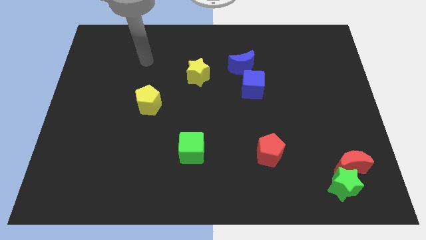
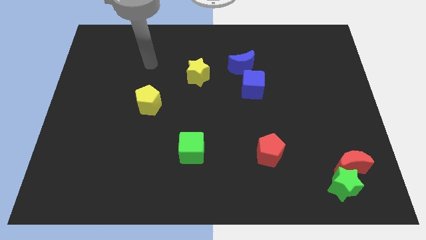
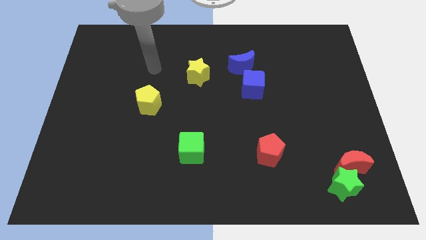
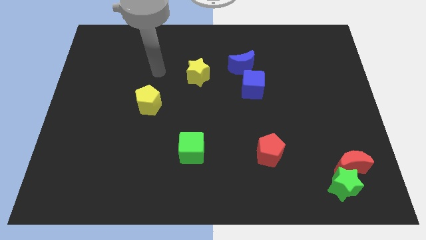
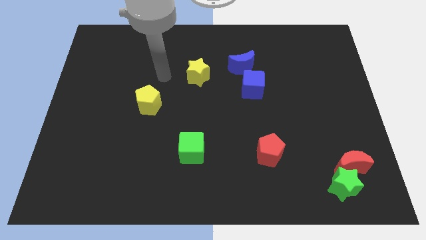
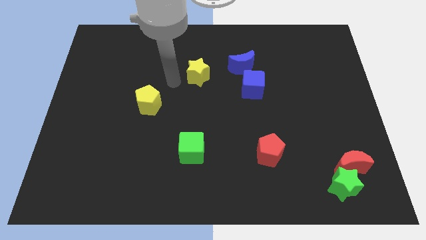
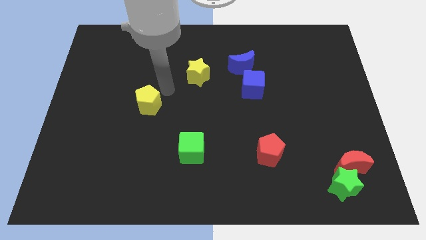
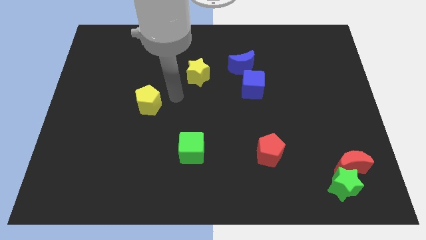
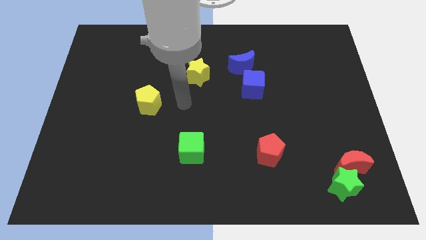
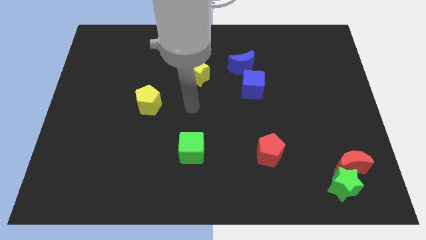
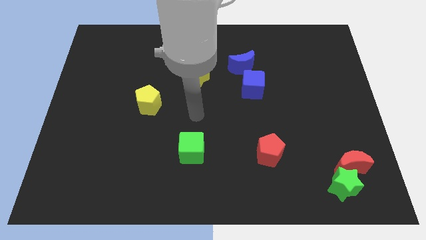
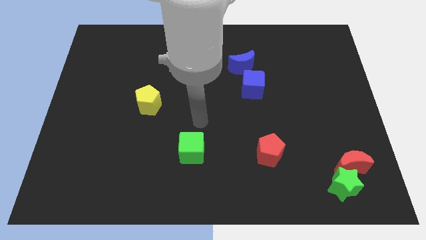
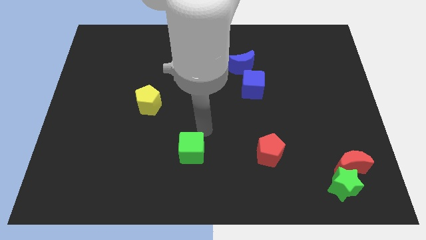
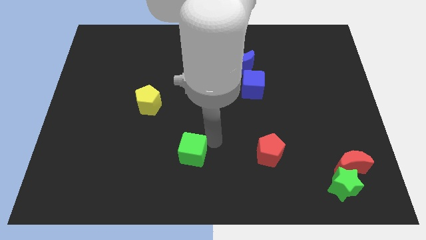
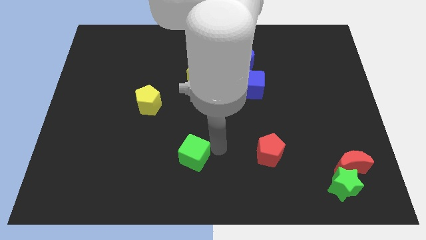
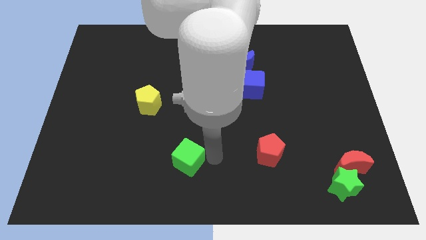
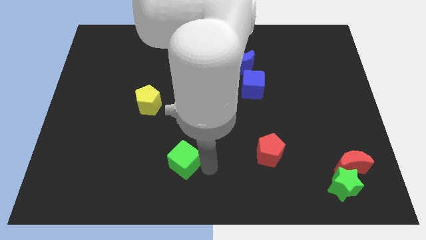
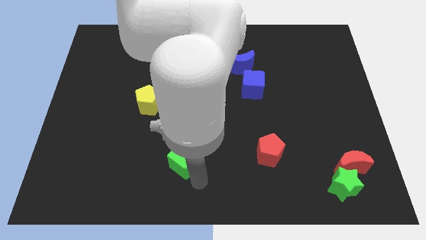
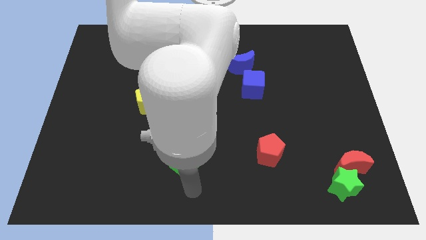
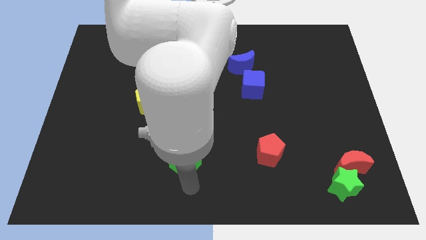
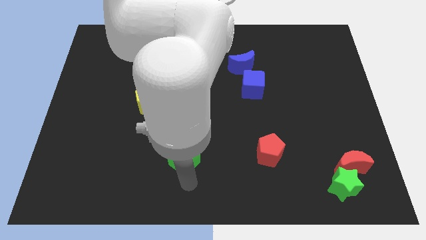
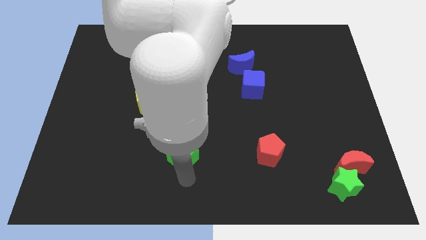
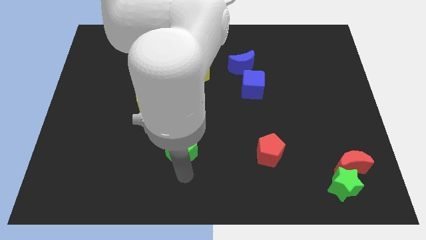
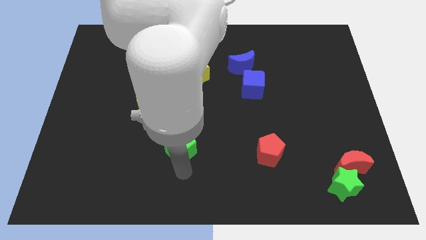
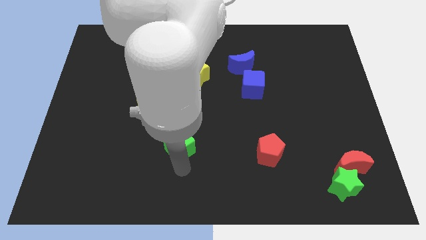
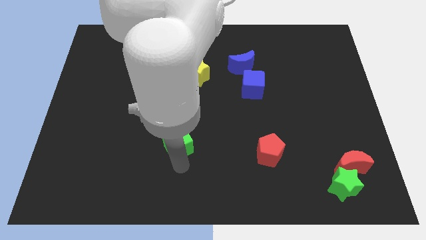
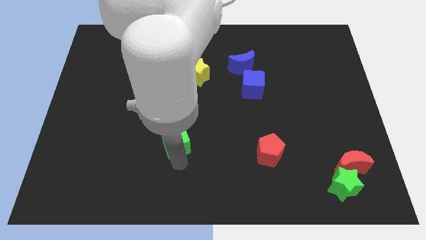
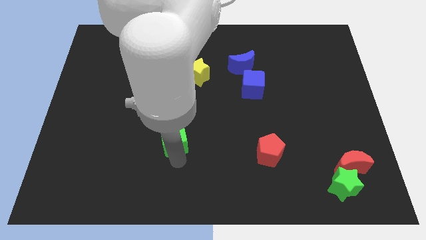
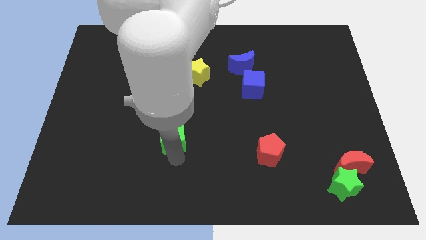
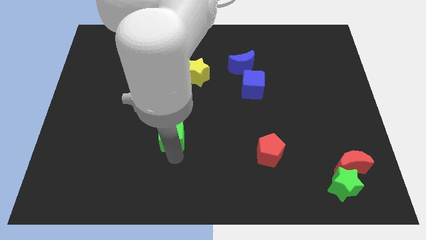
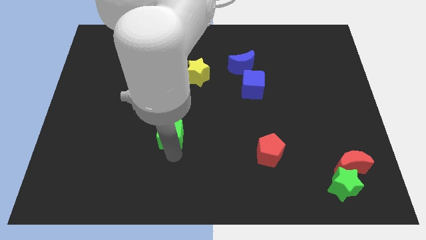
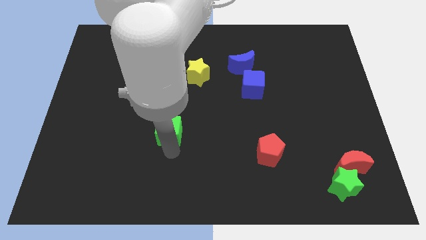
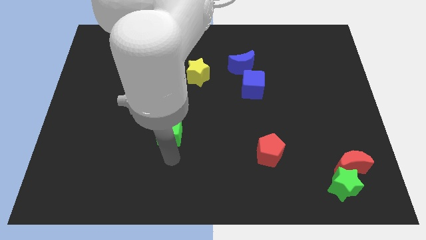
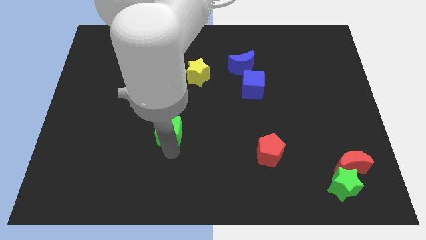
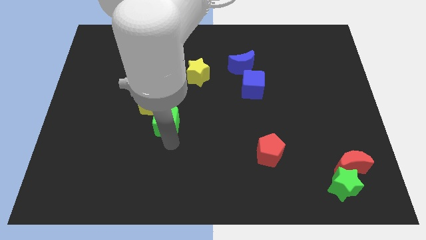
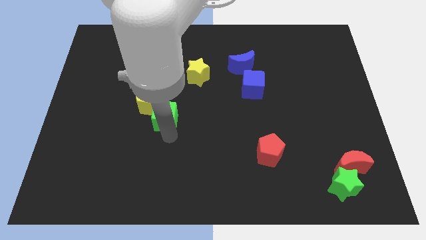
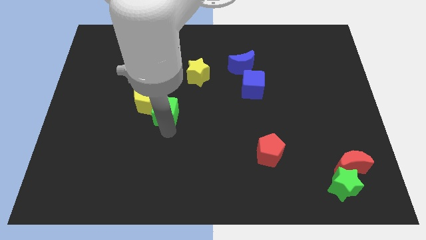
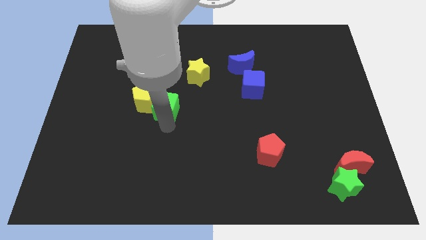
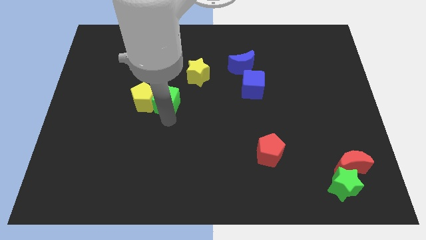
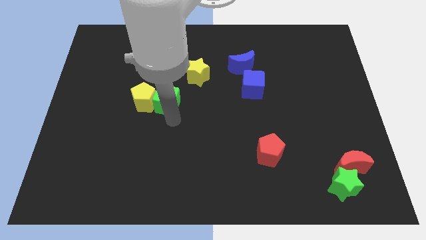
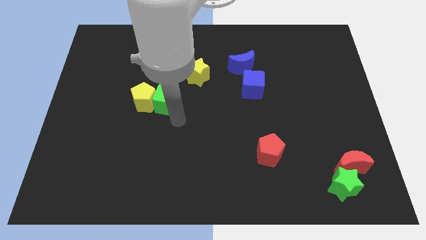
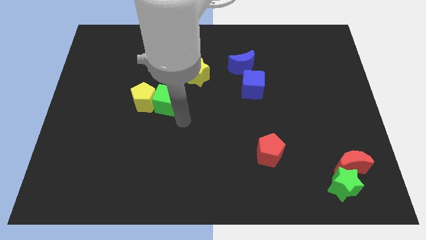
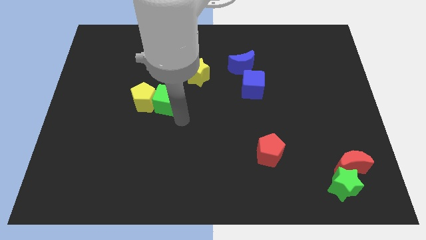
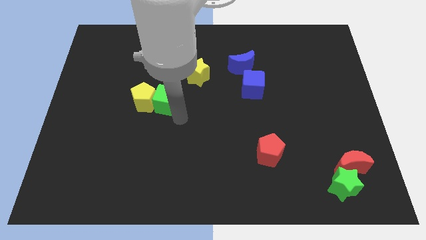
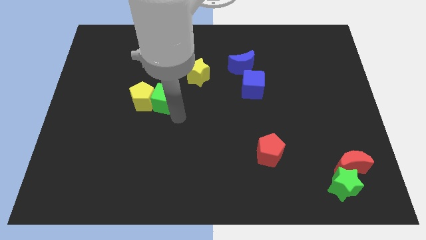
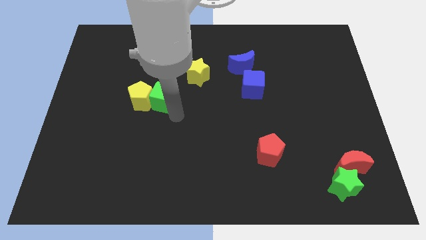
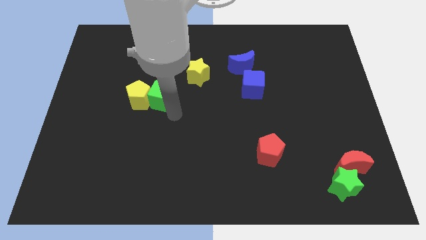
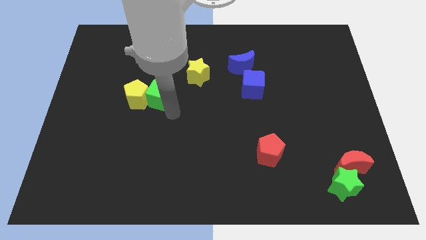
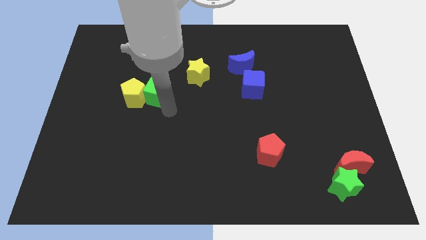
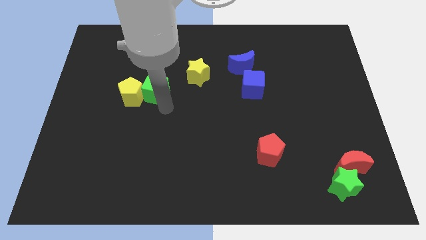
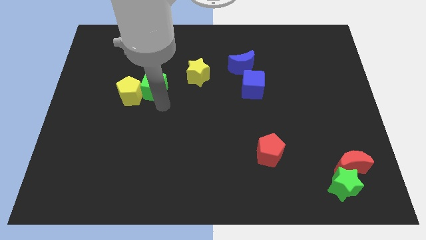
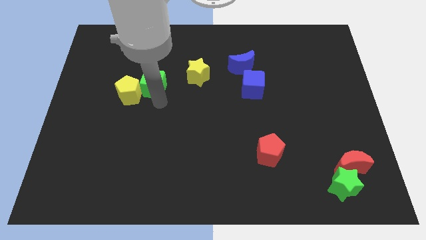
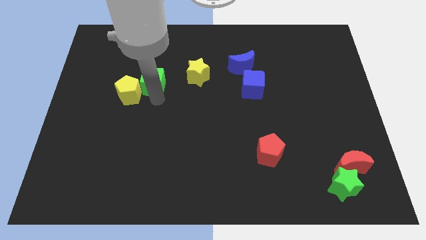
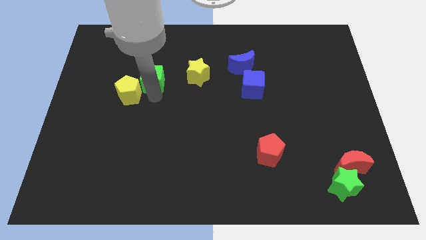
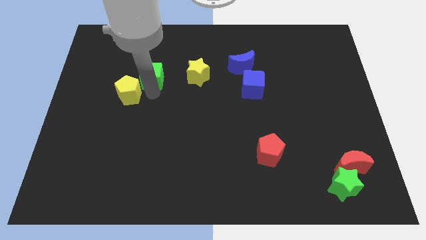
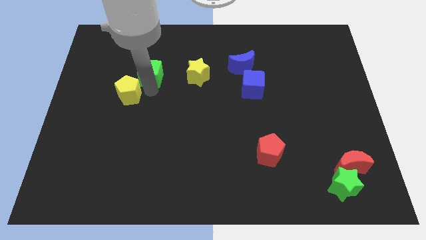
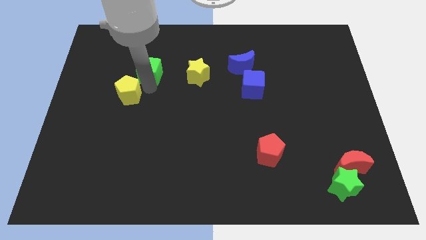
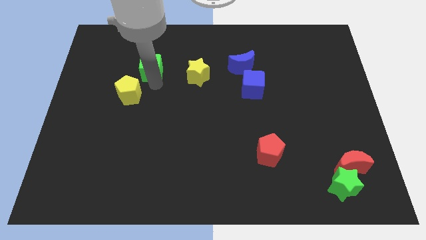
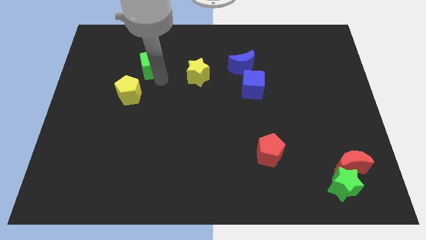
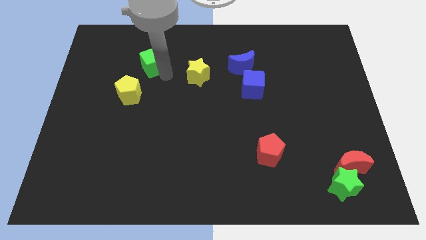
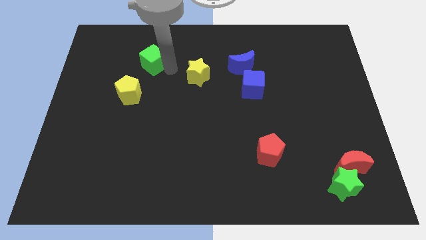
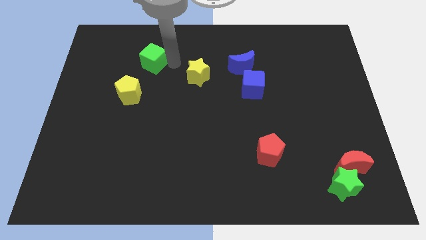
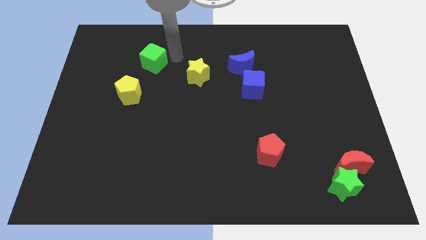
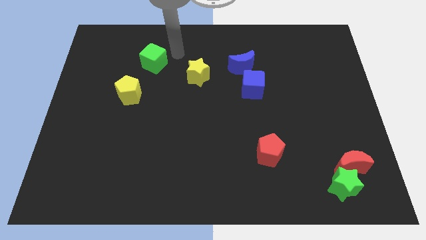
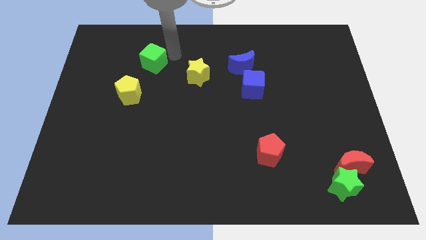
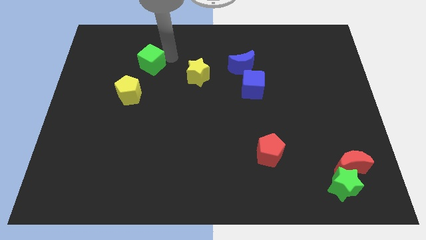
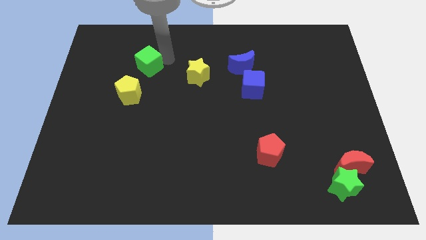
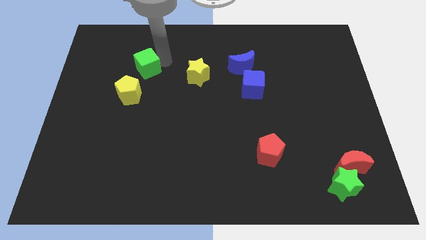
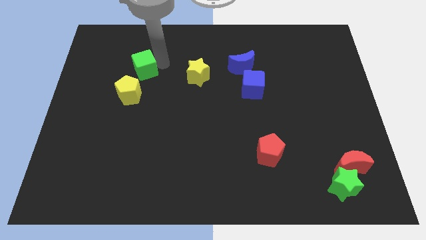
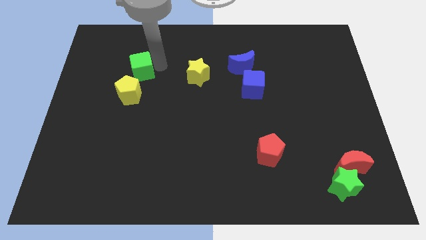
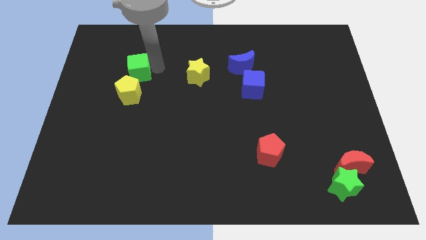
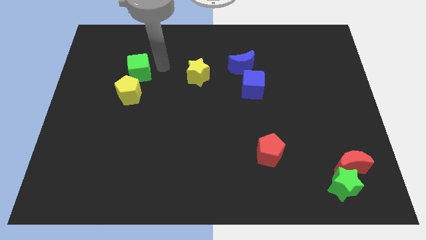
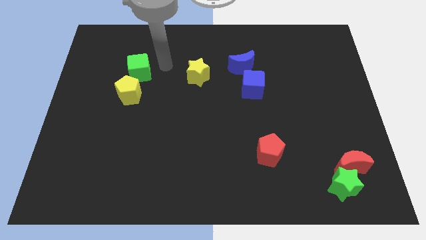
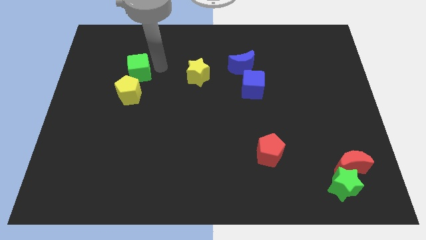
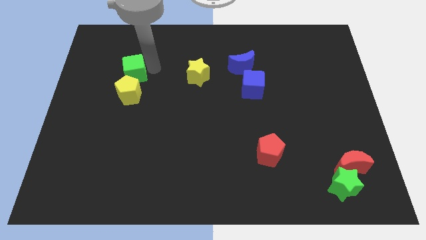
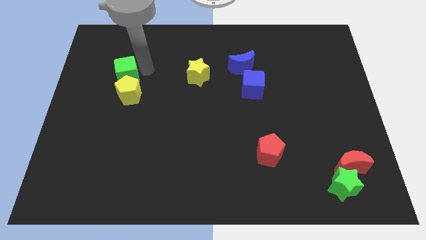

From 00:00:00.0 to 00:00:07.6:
put the green cube to the top left of the yellow pentagon
